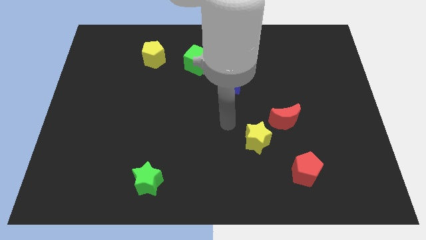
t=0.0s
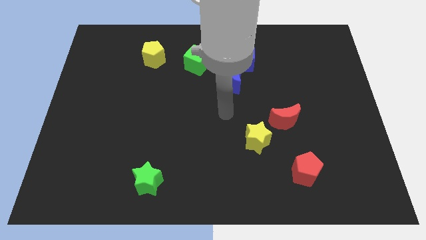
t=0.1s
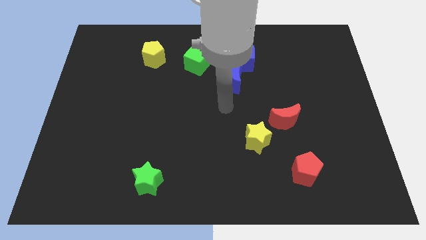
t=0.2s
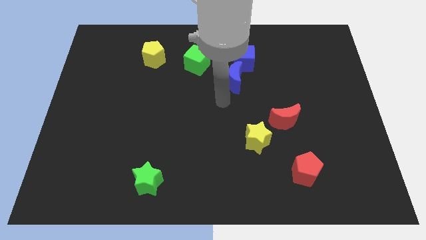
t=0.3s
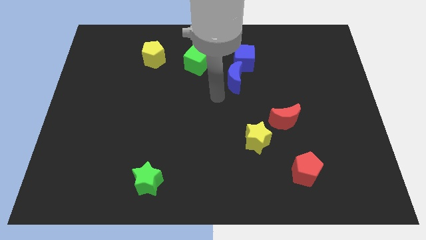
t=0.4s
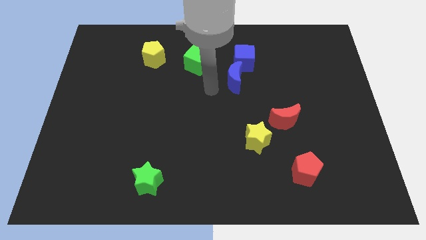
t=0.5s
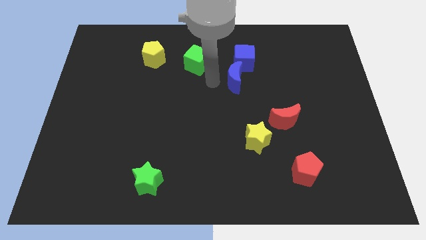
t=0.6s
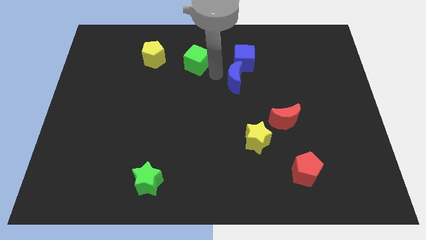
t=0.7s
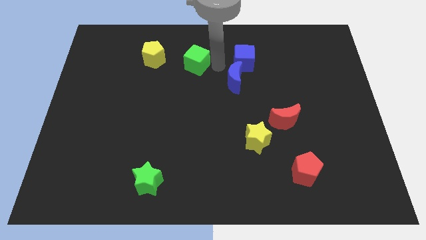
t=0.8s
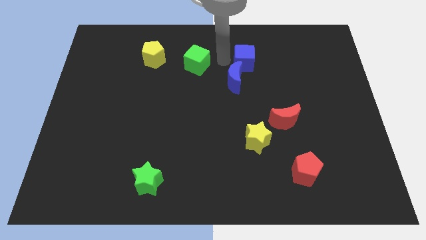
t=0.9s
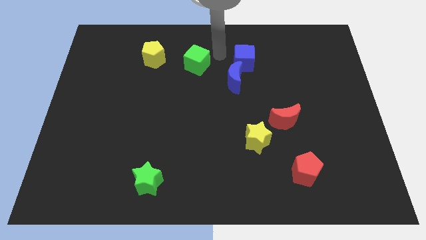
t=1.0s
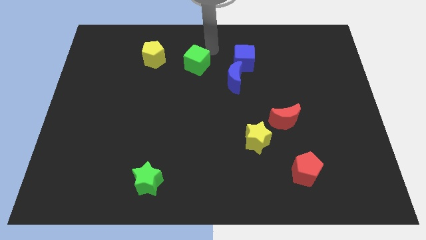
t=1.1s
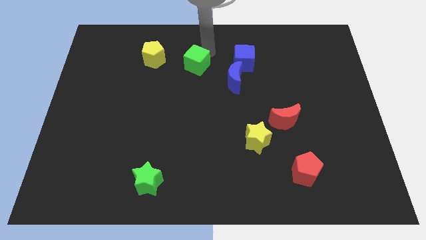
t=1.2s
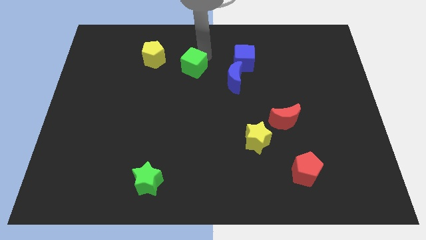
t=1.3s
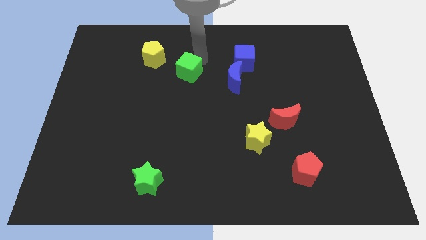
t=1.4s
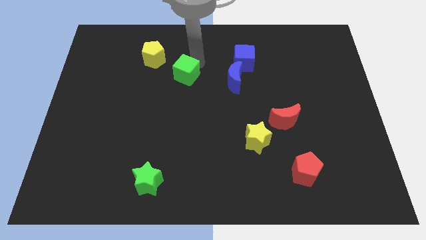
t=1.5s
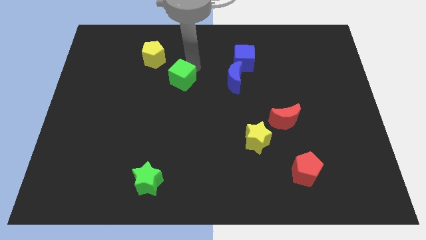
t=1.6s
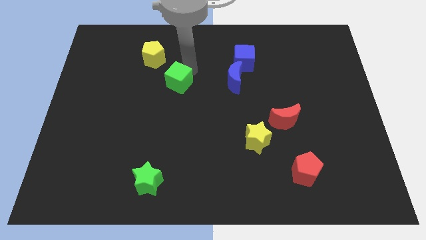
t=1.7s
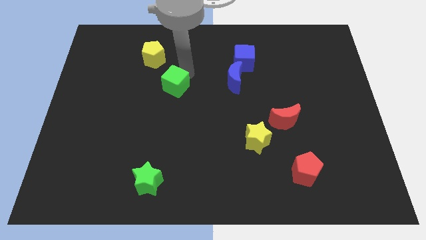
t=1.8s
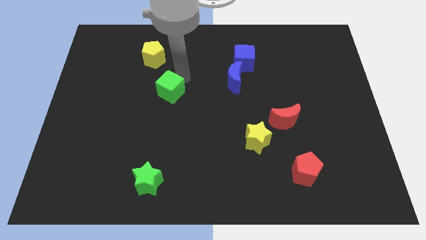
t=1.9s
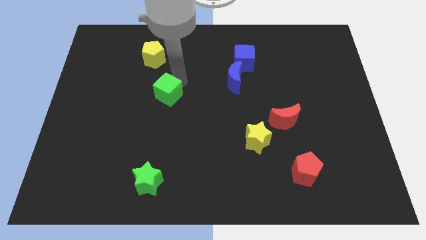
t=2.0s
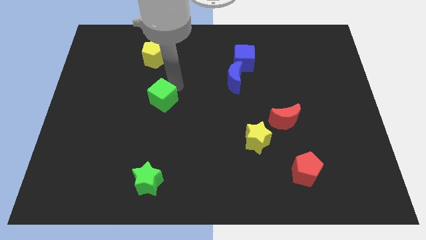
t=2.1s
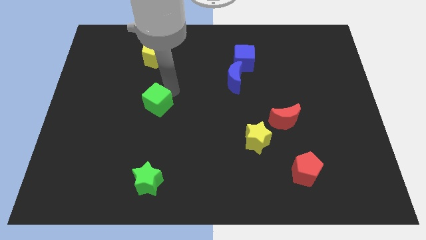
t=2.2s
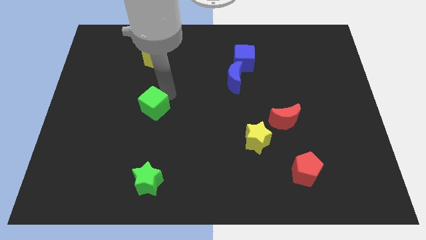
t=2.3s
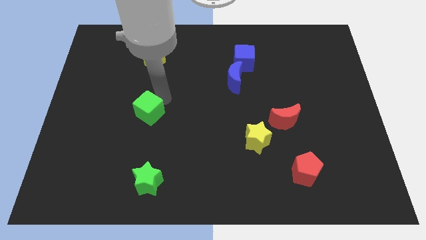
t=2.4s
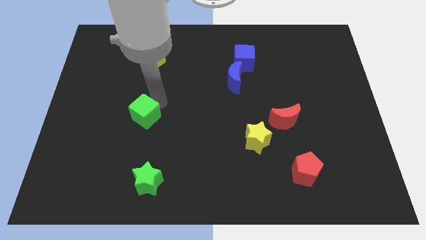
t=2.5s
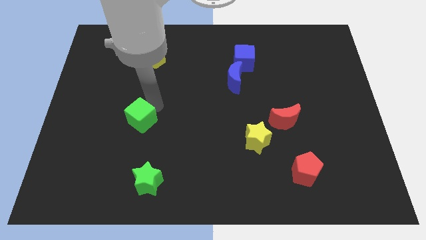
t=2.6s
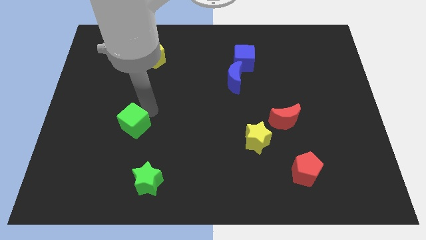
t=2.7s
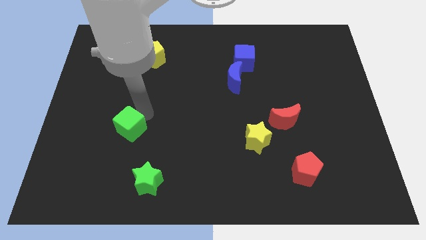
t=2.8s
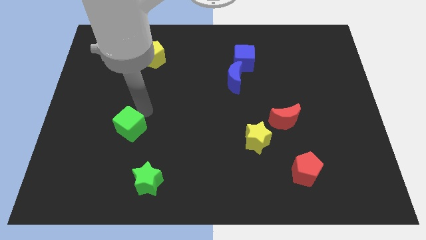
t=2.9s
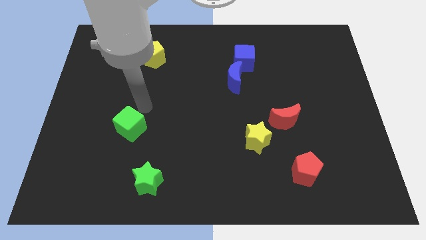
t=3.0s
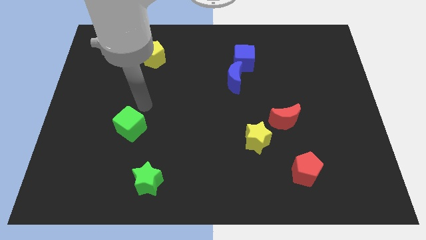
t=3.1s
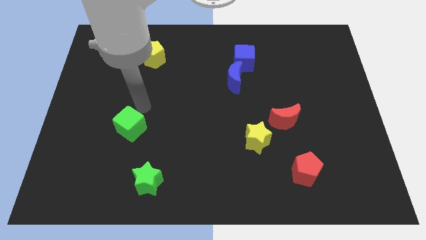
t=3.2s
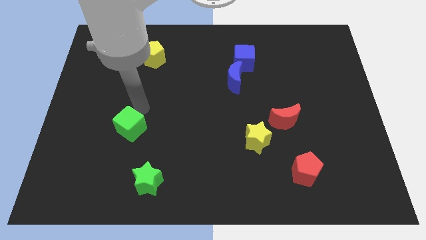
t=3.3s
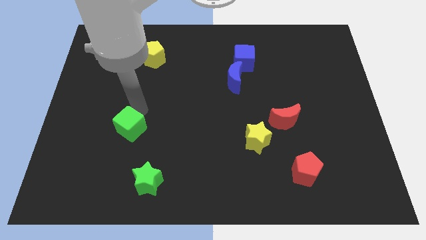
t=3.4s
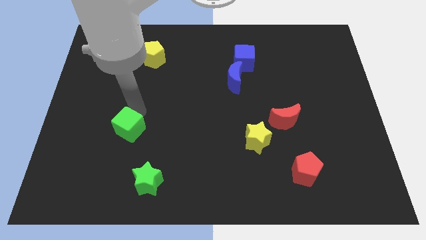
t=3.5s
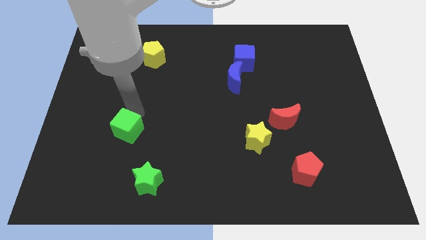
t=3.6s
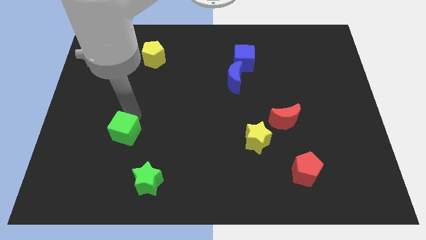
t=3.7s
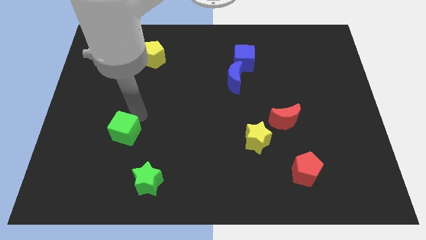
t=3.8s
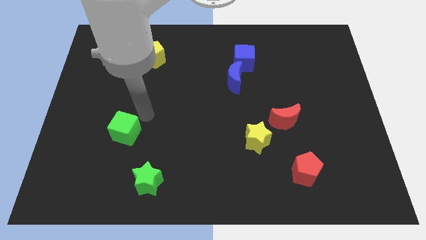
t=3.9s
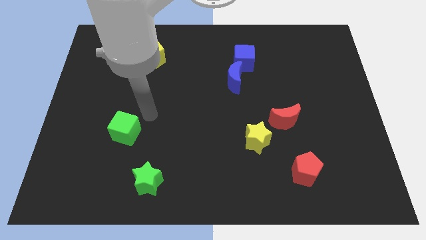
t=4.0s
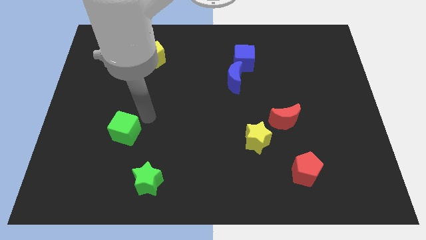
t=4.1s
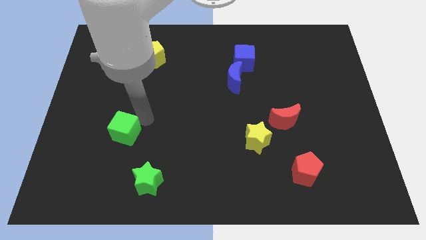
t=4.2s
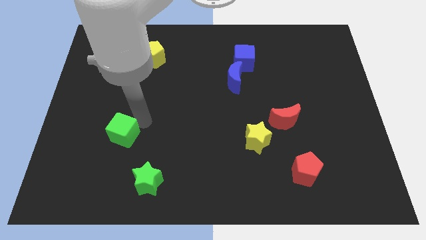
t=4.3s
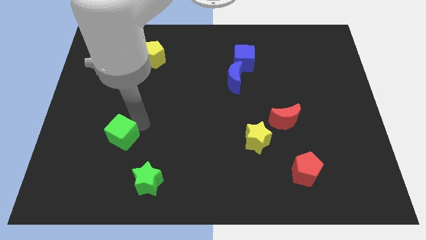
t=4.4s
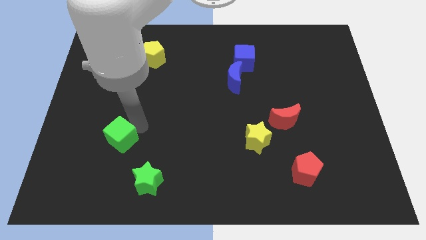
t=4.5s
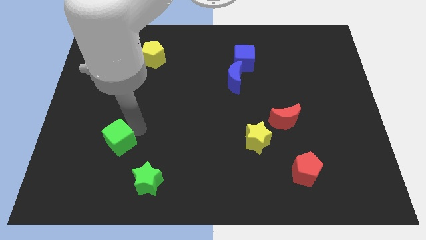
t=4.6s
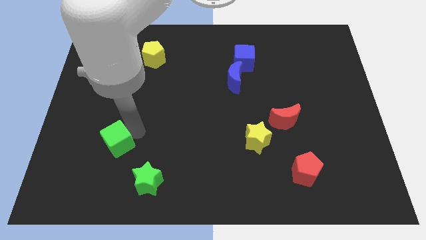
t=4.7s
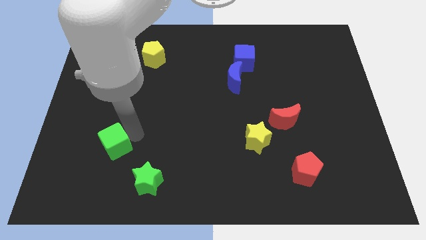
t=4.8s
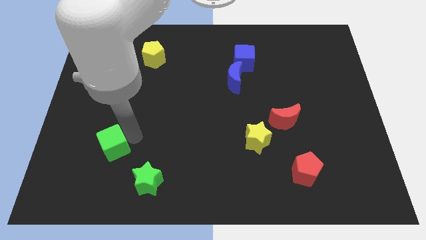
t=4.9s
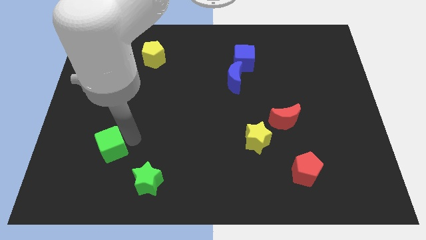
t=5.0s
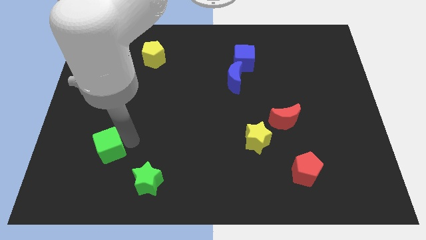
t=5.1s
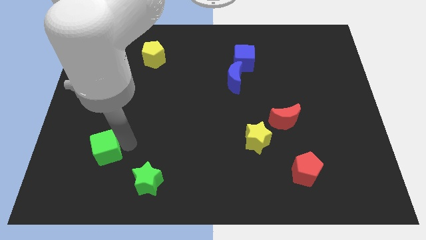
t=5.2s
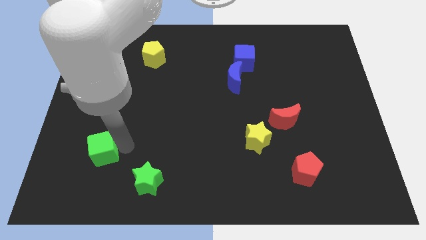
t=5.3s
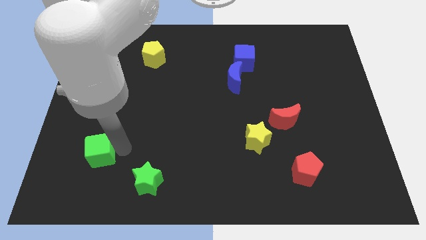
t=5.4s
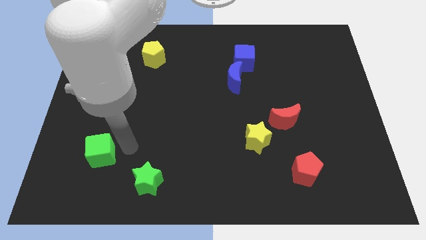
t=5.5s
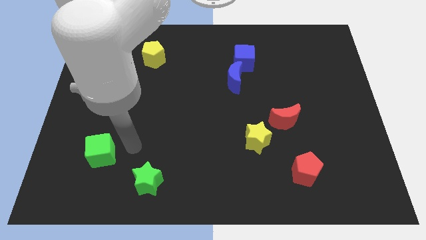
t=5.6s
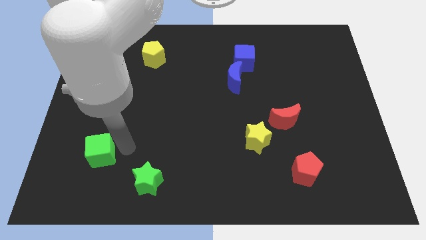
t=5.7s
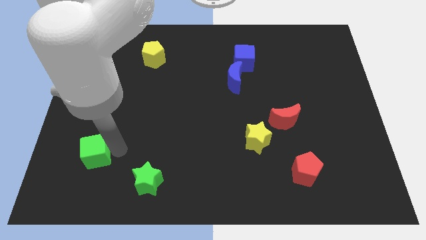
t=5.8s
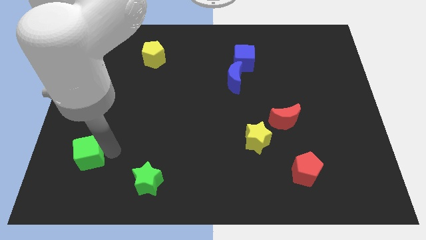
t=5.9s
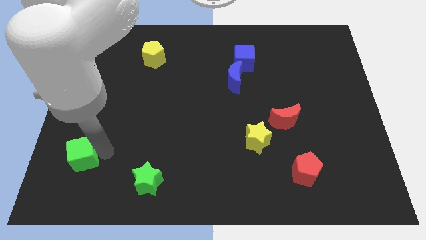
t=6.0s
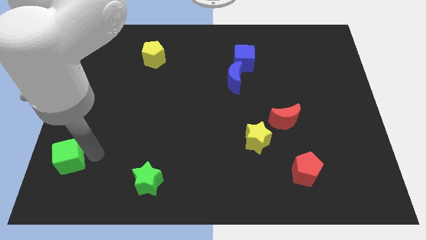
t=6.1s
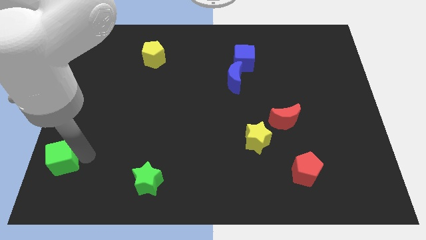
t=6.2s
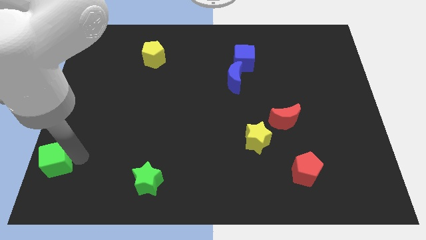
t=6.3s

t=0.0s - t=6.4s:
push the green cube to the lower left corner
